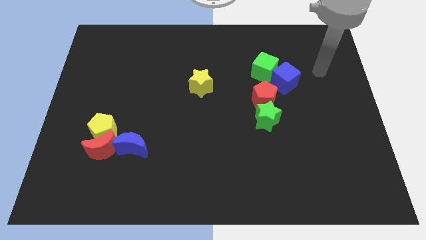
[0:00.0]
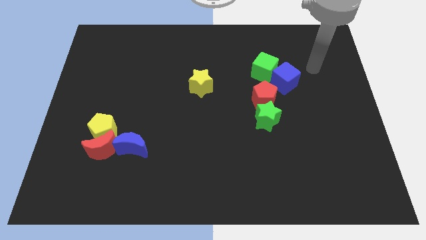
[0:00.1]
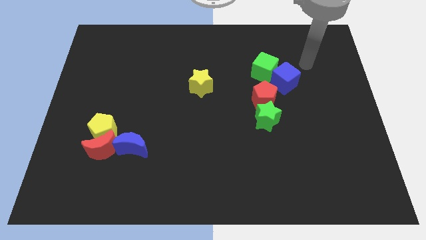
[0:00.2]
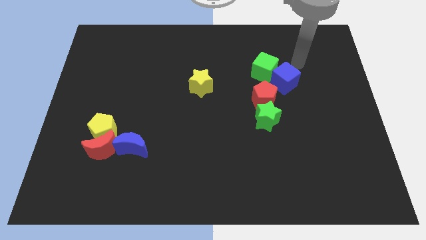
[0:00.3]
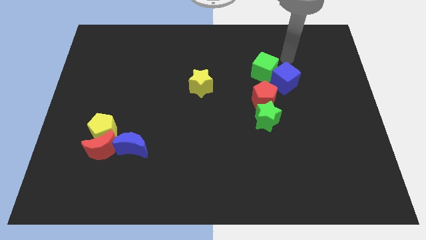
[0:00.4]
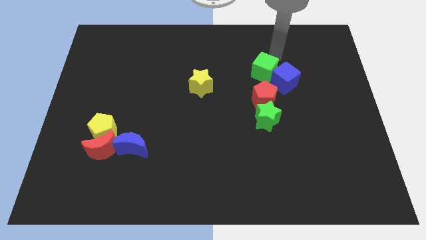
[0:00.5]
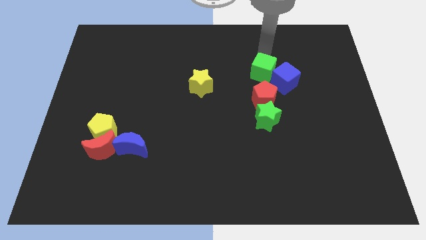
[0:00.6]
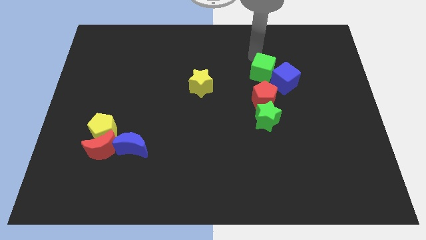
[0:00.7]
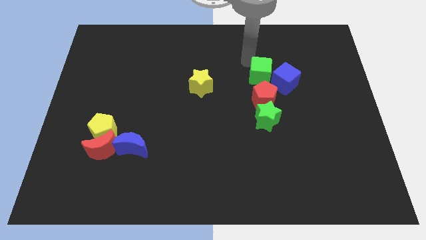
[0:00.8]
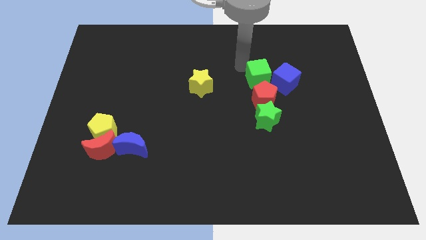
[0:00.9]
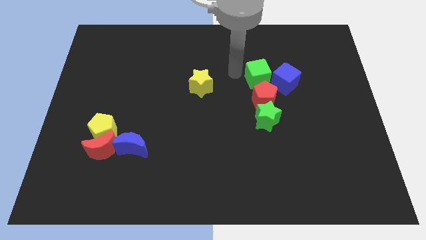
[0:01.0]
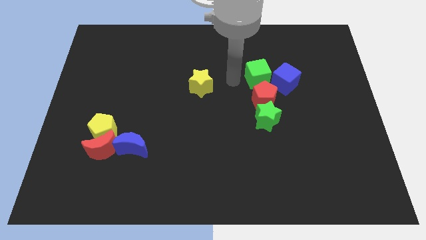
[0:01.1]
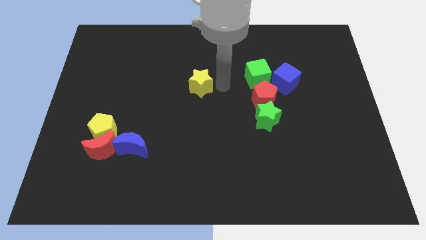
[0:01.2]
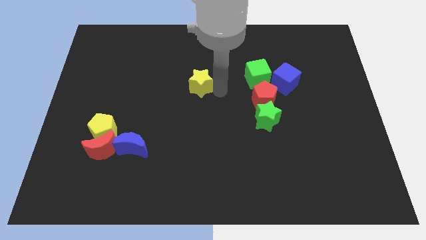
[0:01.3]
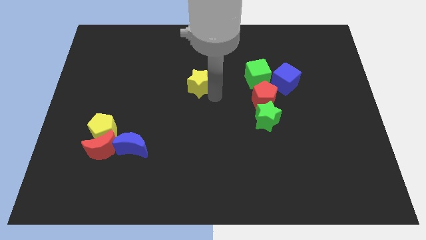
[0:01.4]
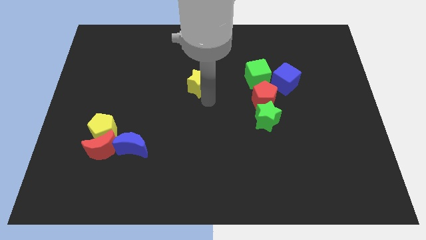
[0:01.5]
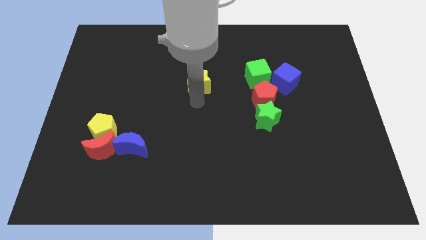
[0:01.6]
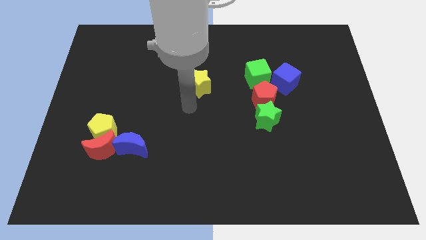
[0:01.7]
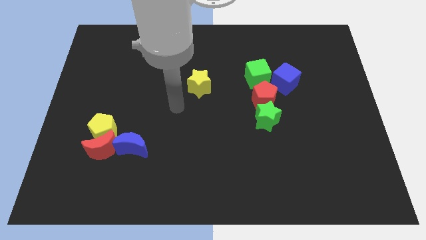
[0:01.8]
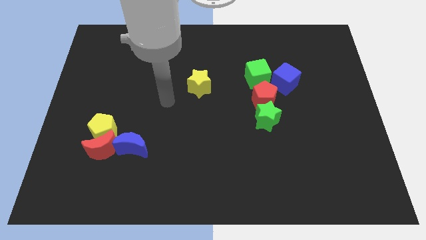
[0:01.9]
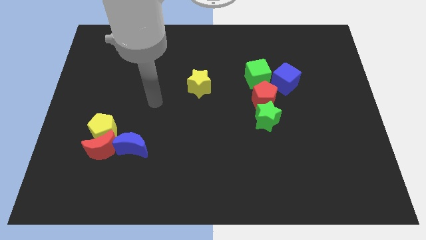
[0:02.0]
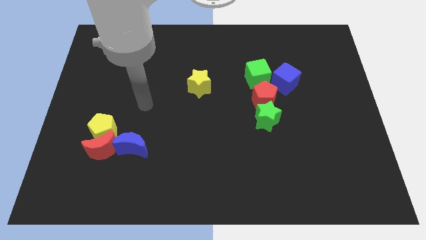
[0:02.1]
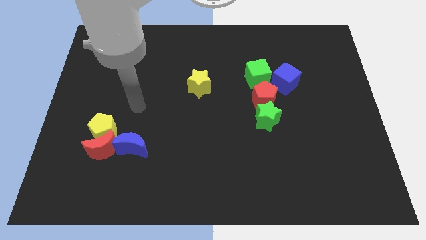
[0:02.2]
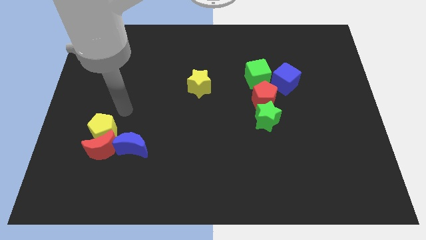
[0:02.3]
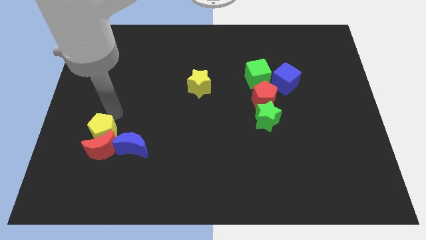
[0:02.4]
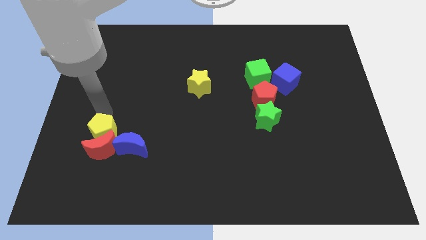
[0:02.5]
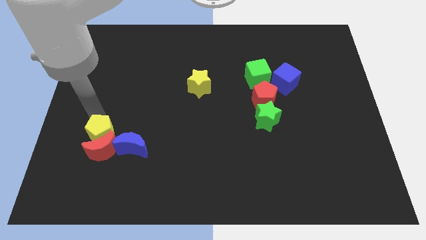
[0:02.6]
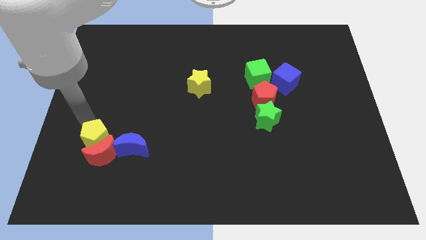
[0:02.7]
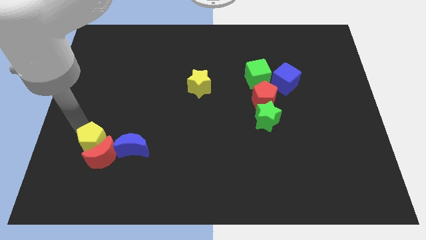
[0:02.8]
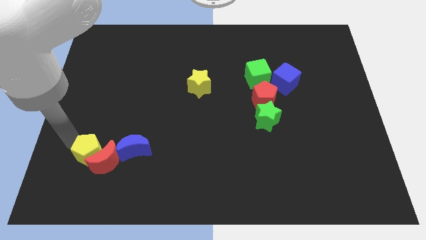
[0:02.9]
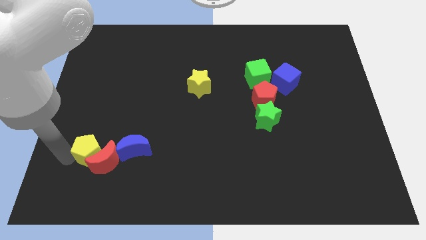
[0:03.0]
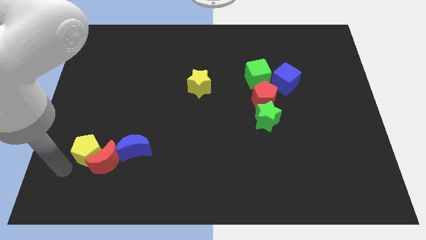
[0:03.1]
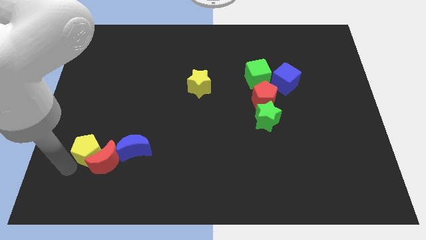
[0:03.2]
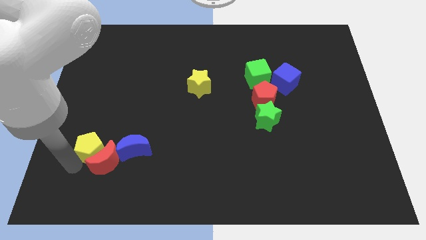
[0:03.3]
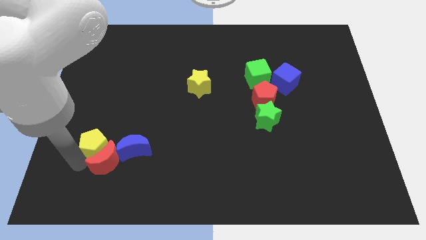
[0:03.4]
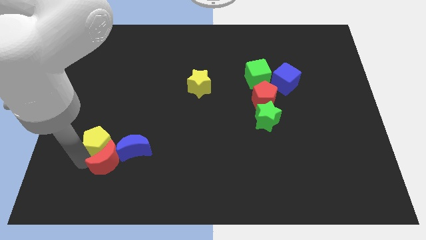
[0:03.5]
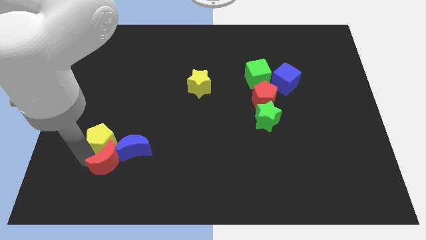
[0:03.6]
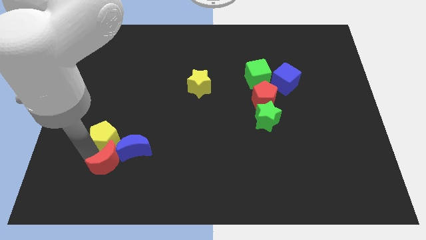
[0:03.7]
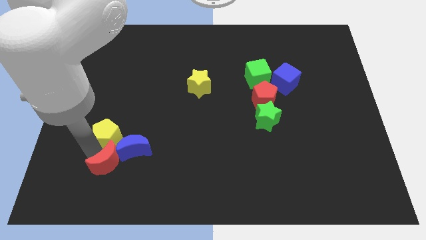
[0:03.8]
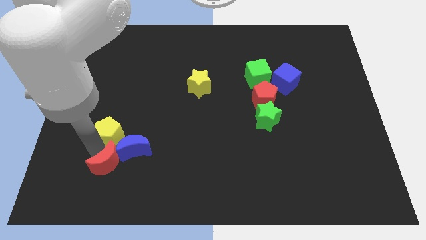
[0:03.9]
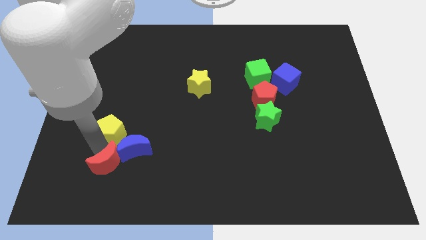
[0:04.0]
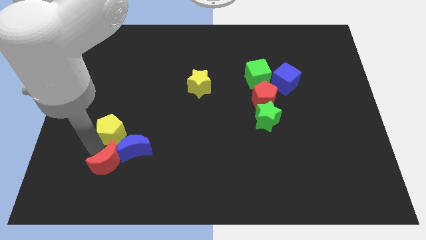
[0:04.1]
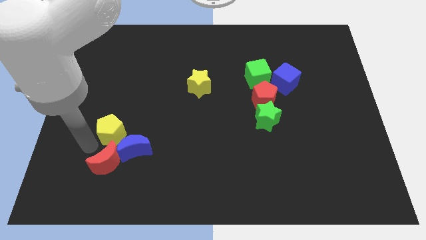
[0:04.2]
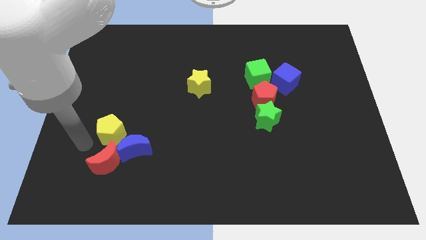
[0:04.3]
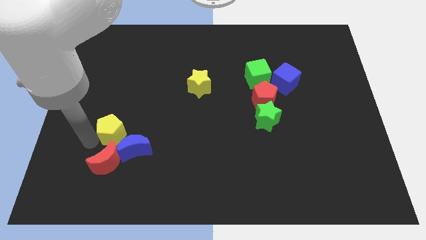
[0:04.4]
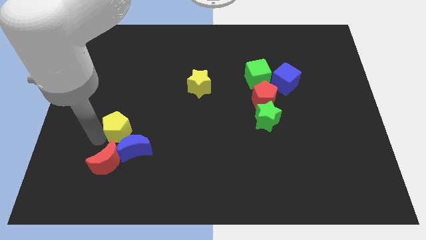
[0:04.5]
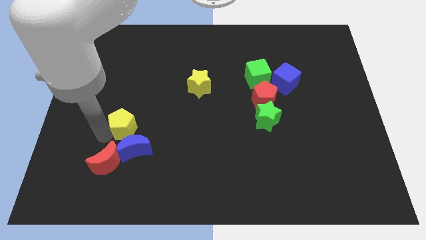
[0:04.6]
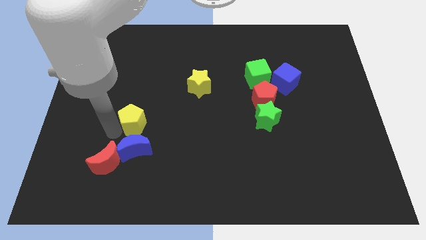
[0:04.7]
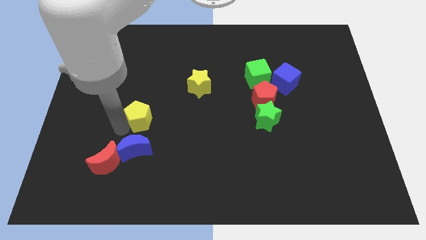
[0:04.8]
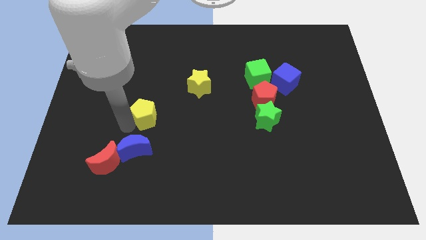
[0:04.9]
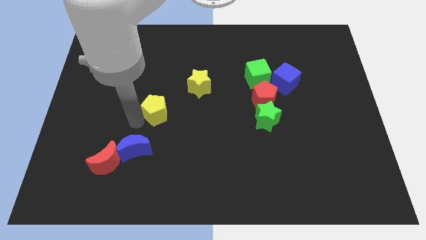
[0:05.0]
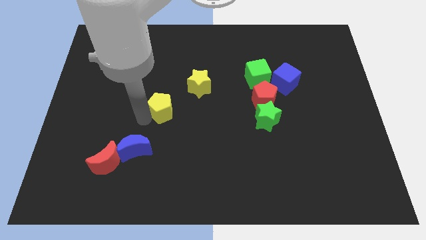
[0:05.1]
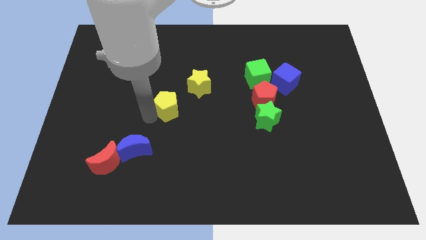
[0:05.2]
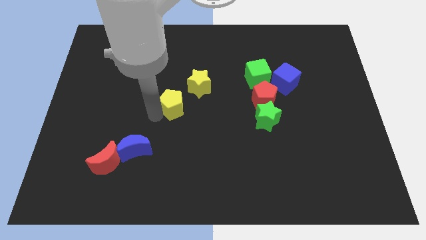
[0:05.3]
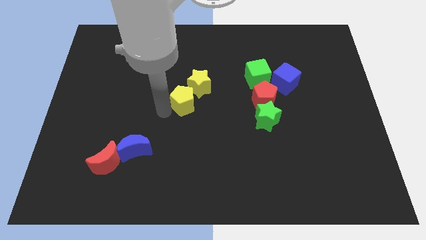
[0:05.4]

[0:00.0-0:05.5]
push the yellow pentagon next to the yellow star

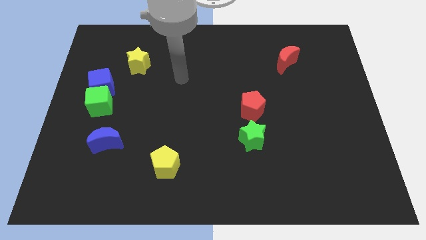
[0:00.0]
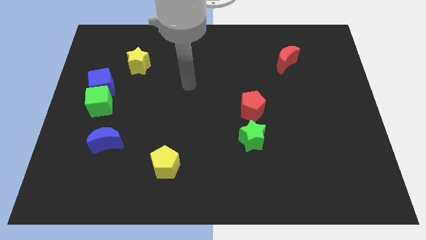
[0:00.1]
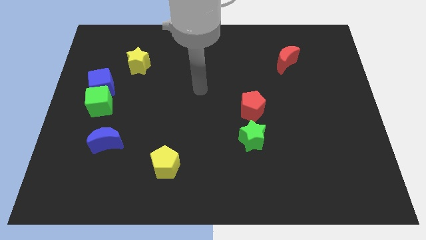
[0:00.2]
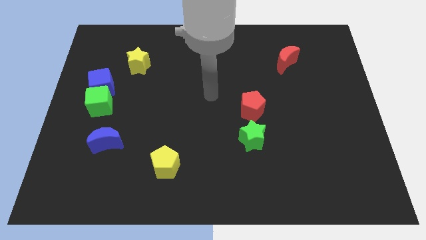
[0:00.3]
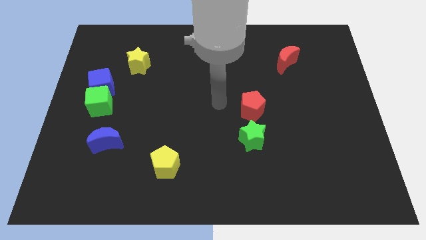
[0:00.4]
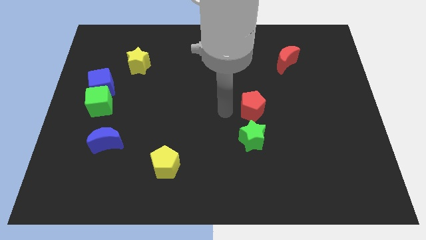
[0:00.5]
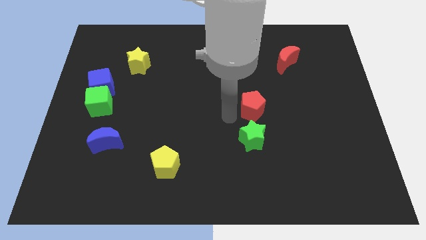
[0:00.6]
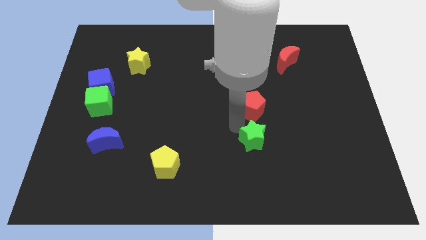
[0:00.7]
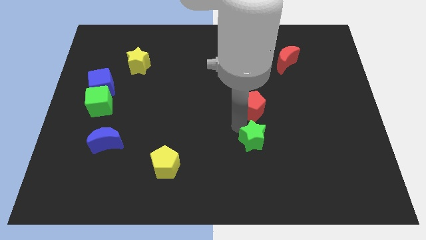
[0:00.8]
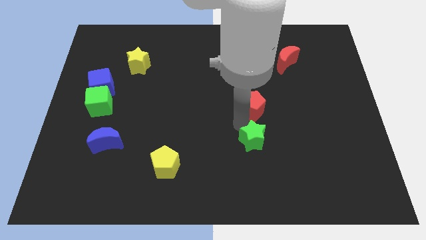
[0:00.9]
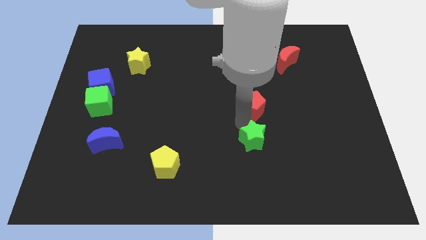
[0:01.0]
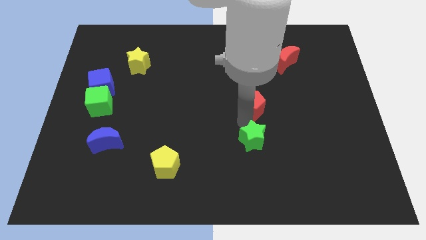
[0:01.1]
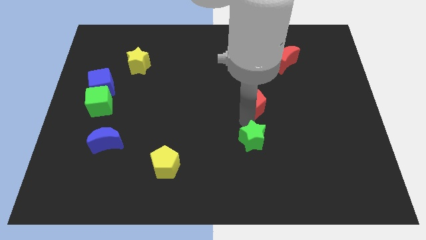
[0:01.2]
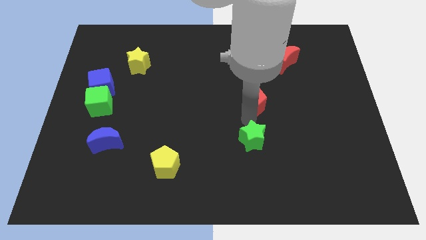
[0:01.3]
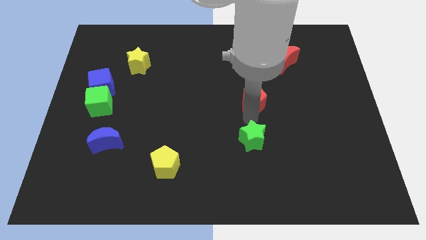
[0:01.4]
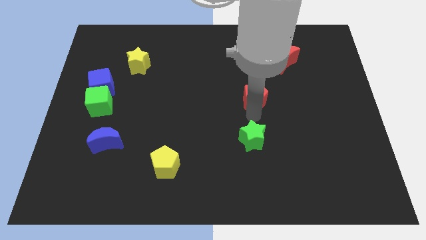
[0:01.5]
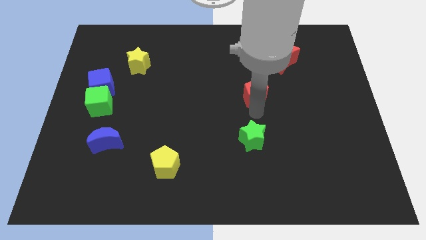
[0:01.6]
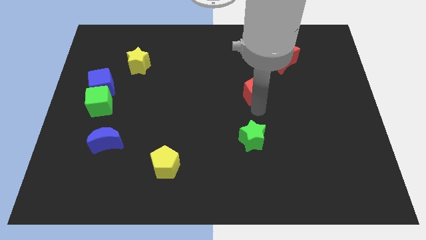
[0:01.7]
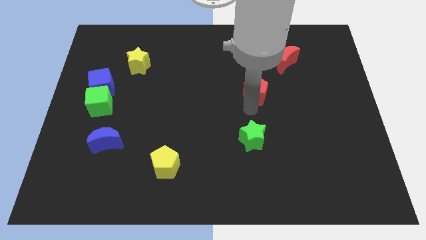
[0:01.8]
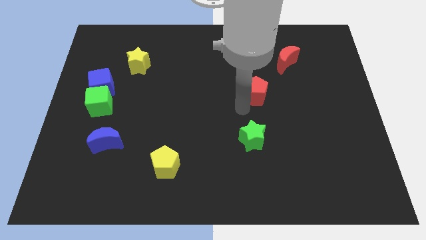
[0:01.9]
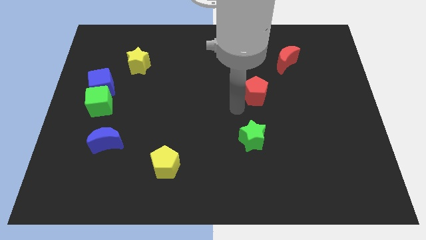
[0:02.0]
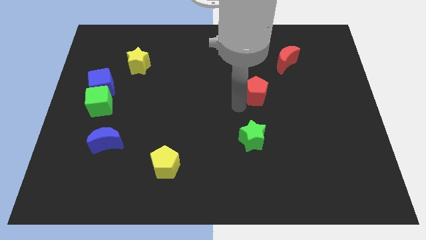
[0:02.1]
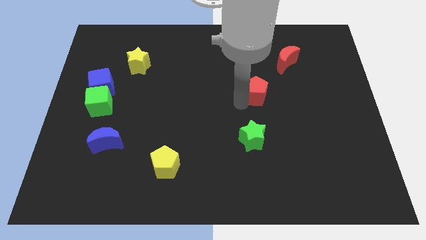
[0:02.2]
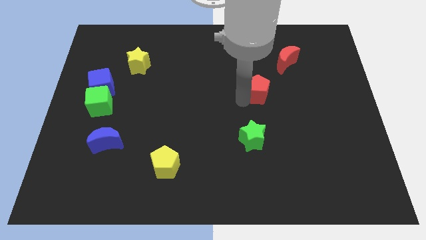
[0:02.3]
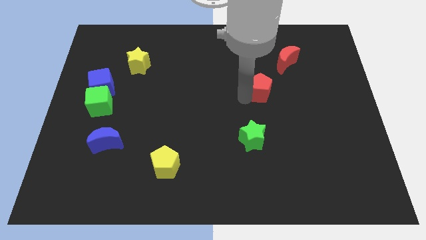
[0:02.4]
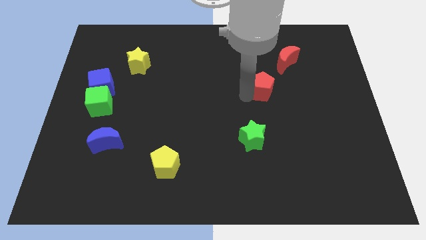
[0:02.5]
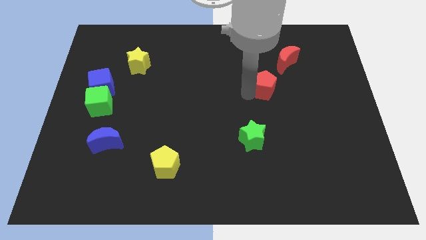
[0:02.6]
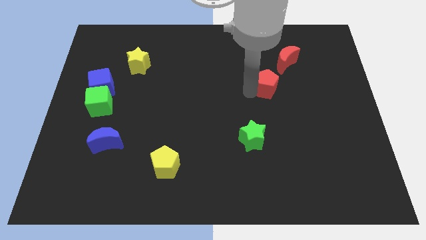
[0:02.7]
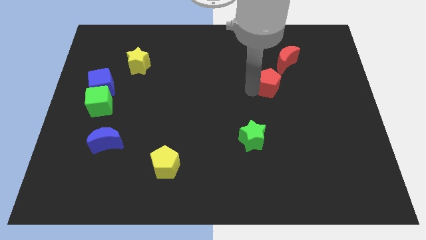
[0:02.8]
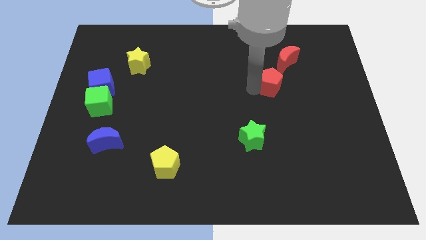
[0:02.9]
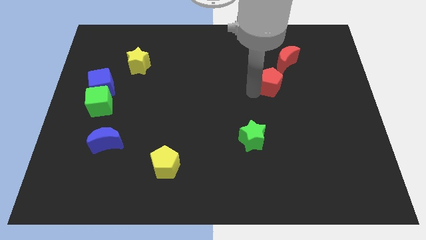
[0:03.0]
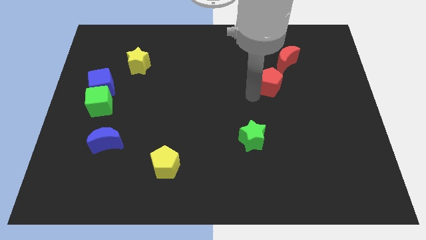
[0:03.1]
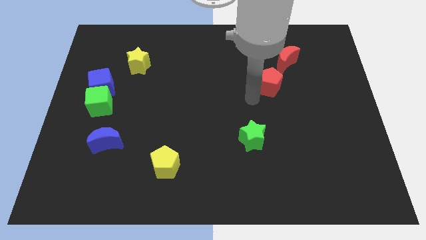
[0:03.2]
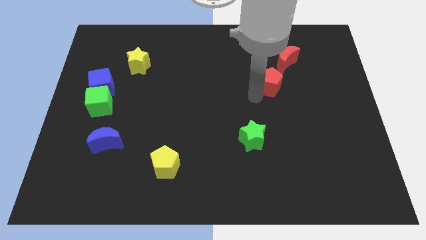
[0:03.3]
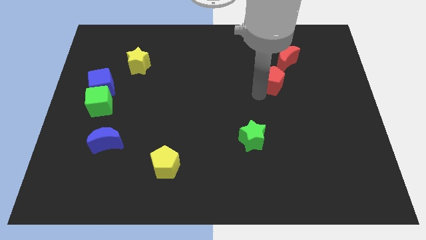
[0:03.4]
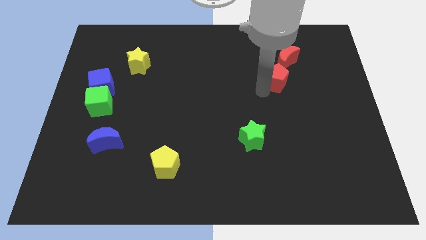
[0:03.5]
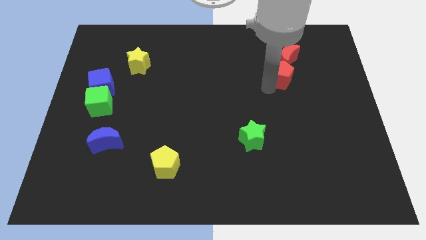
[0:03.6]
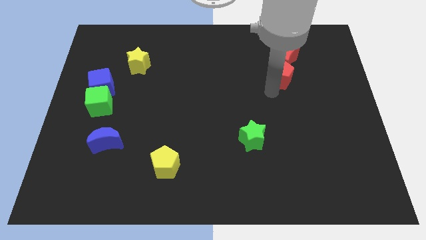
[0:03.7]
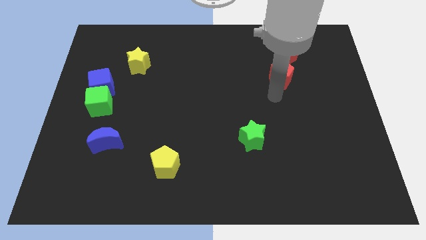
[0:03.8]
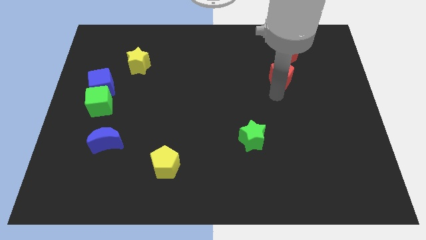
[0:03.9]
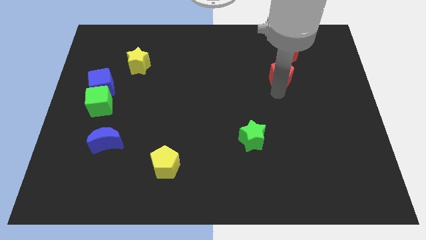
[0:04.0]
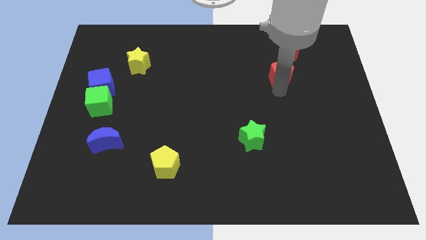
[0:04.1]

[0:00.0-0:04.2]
put the red pentagon towards the red moon
